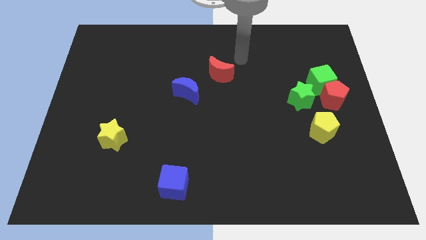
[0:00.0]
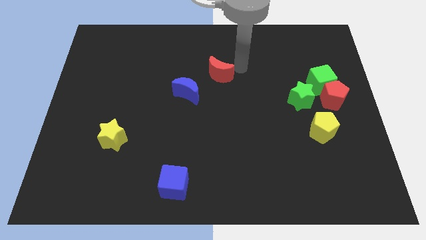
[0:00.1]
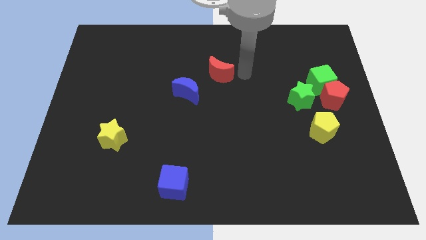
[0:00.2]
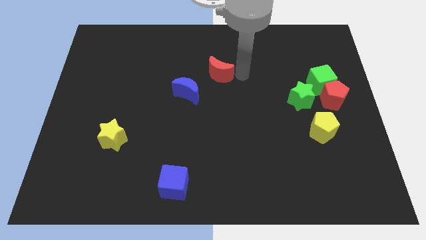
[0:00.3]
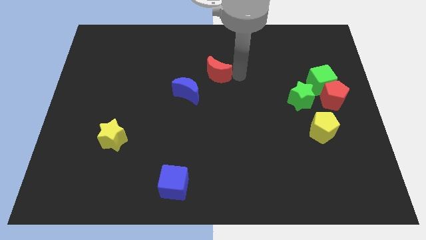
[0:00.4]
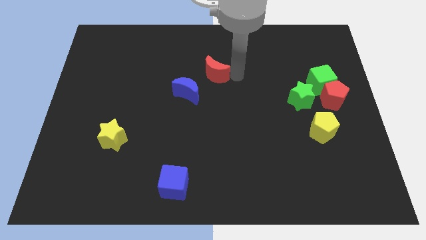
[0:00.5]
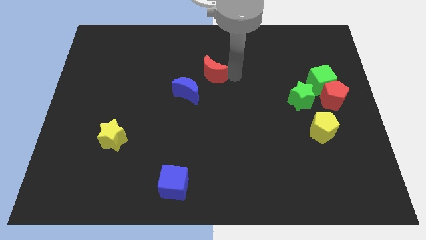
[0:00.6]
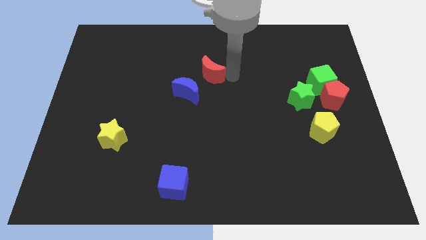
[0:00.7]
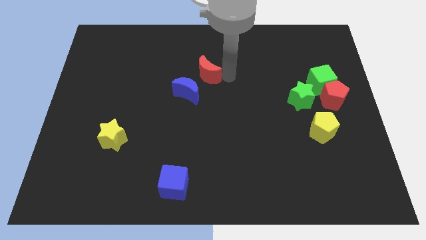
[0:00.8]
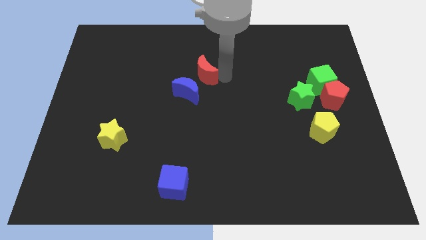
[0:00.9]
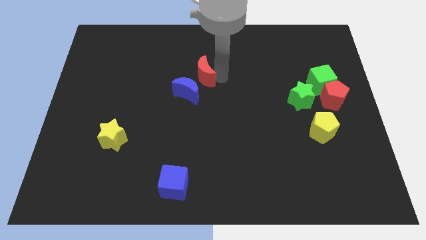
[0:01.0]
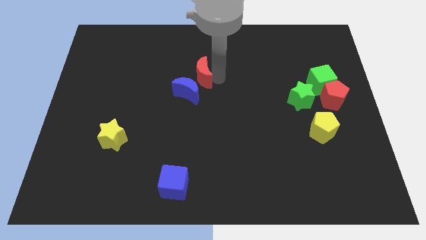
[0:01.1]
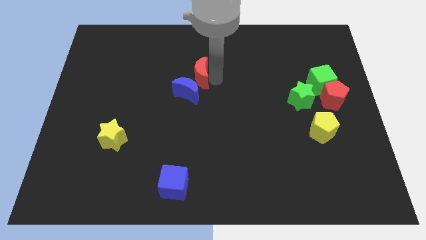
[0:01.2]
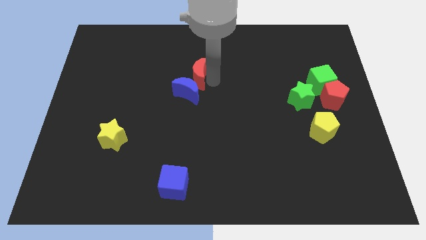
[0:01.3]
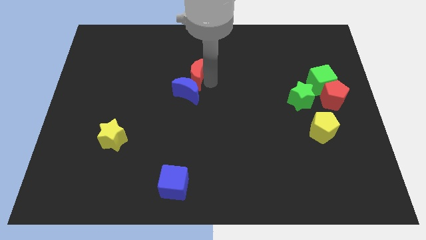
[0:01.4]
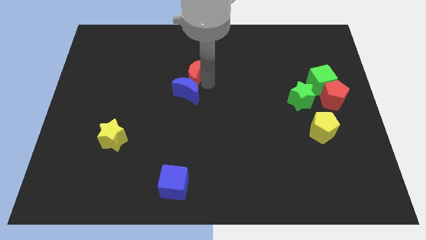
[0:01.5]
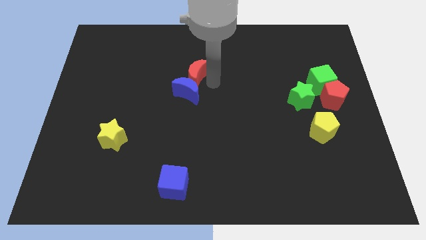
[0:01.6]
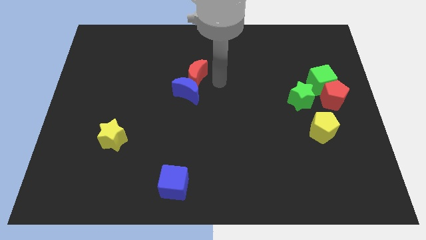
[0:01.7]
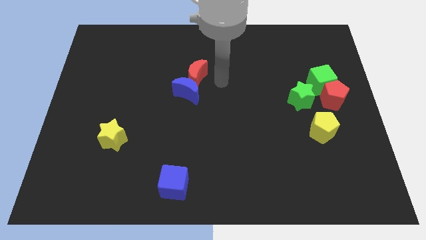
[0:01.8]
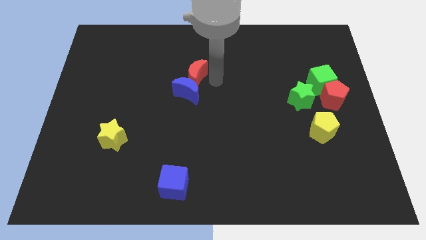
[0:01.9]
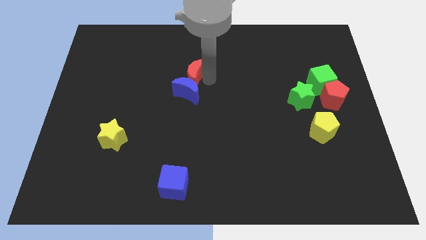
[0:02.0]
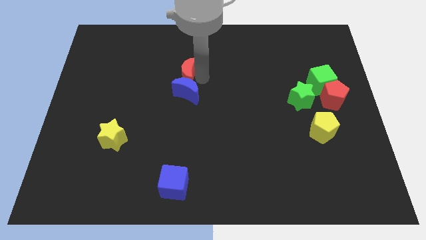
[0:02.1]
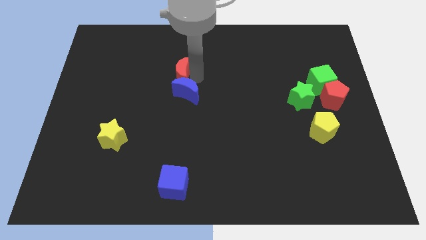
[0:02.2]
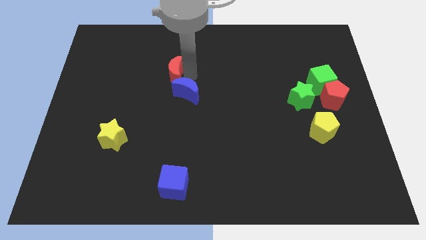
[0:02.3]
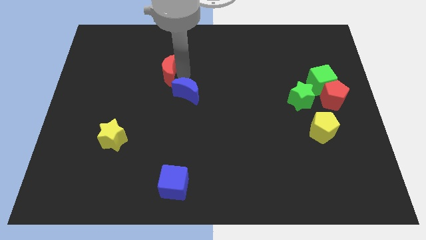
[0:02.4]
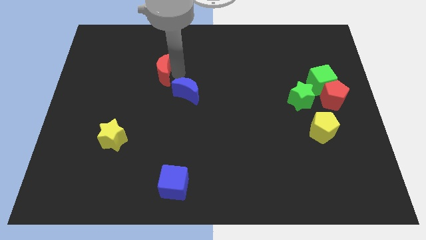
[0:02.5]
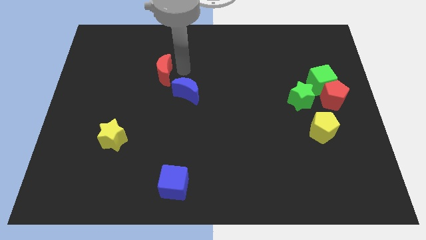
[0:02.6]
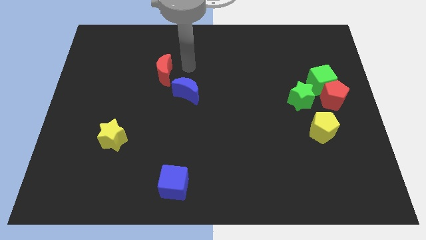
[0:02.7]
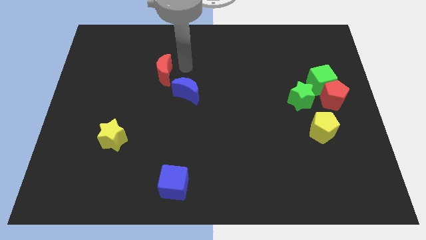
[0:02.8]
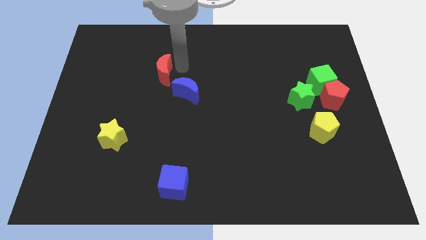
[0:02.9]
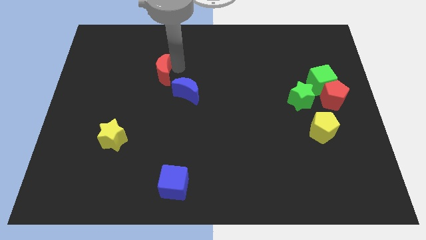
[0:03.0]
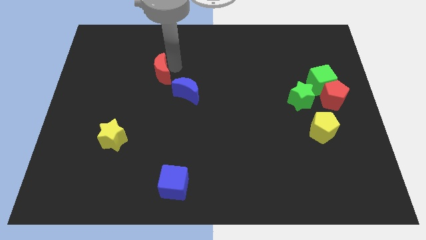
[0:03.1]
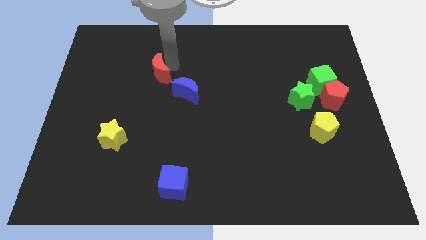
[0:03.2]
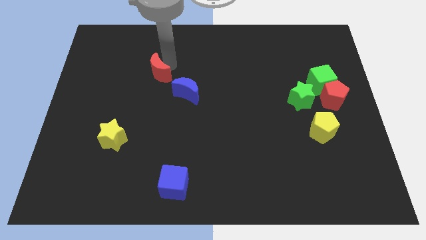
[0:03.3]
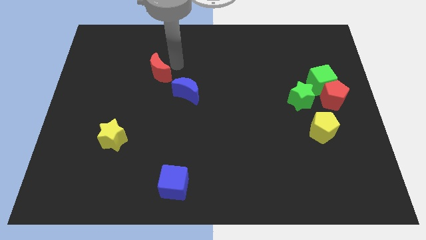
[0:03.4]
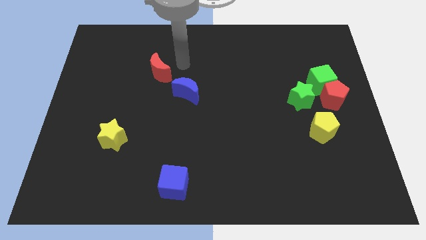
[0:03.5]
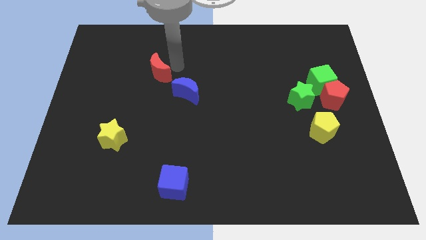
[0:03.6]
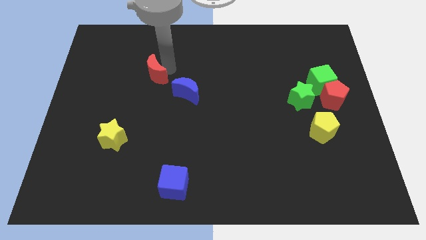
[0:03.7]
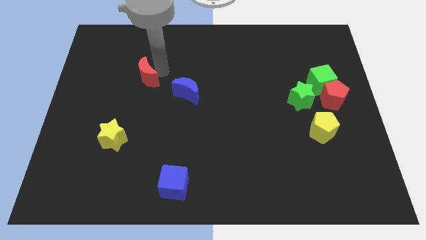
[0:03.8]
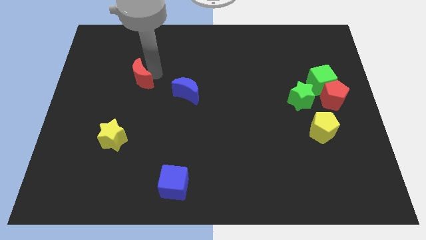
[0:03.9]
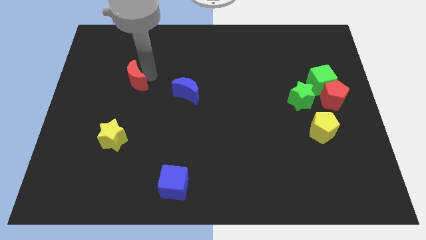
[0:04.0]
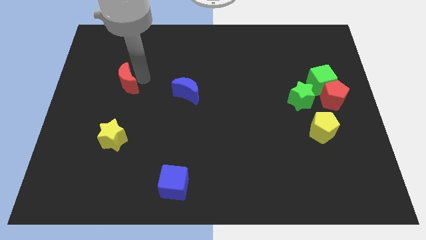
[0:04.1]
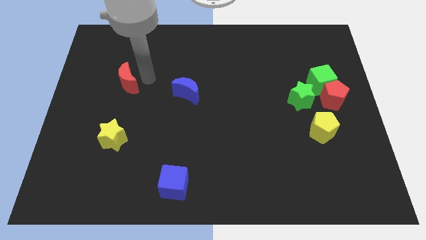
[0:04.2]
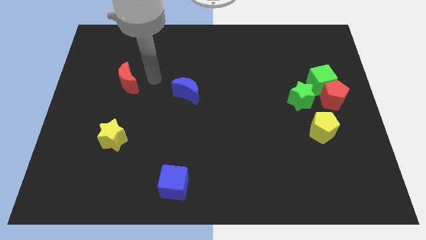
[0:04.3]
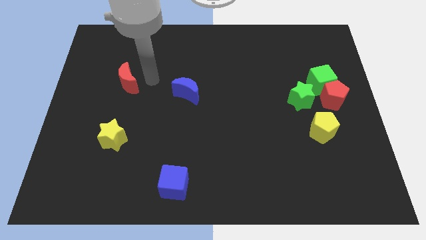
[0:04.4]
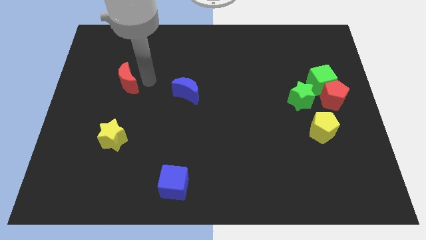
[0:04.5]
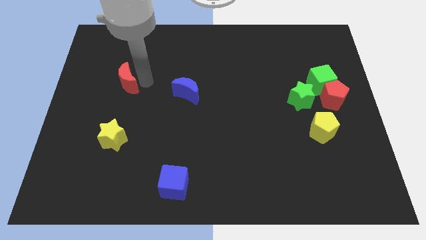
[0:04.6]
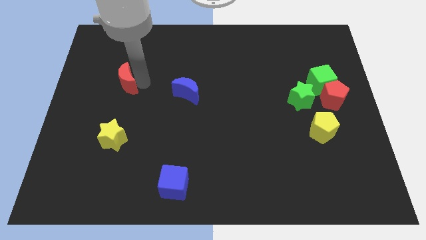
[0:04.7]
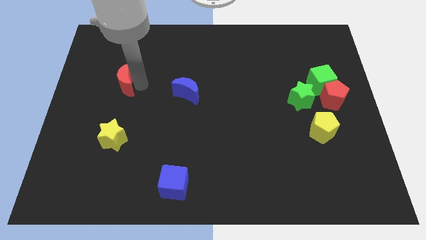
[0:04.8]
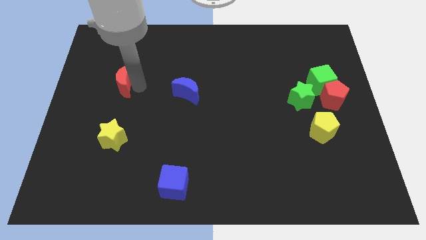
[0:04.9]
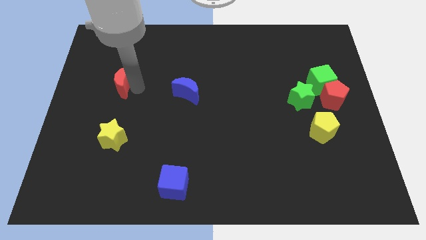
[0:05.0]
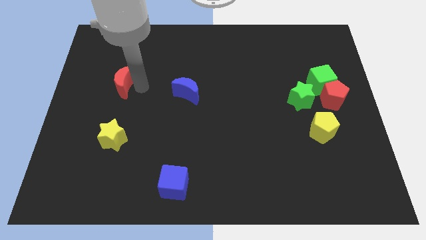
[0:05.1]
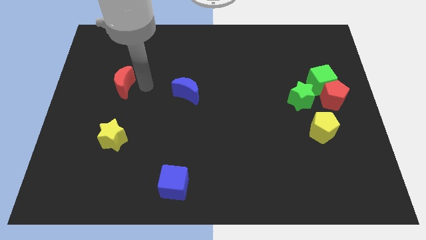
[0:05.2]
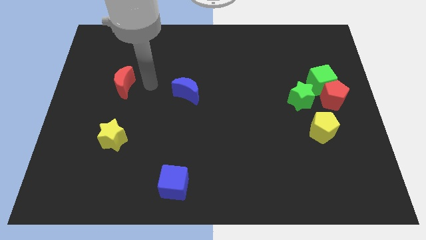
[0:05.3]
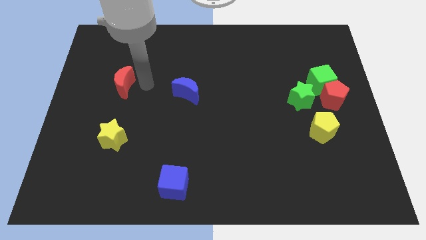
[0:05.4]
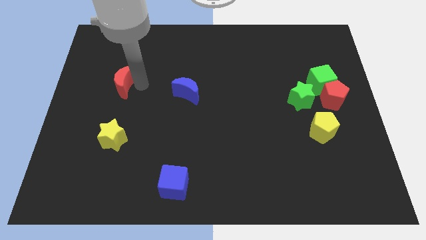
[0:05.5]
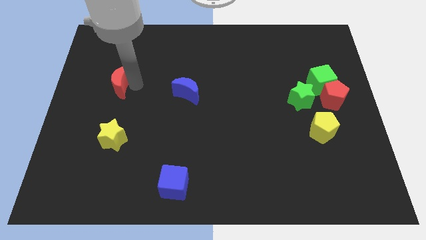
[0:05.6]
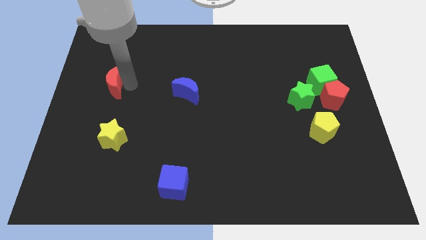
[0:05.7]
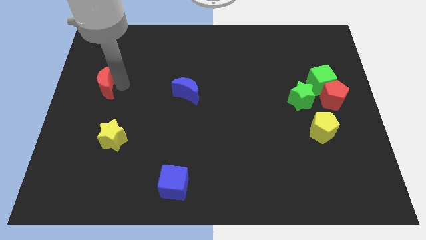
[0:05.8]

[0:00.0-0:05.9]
push the red moon to the left side

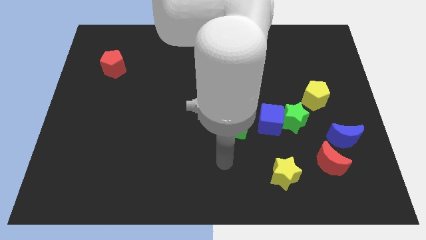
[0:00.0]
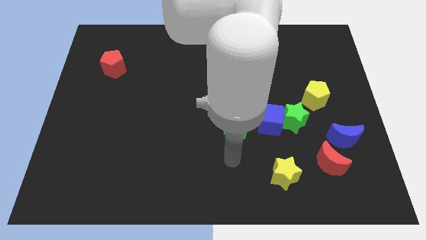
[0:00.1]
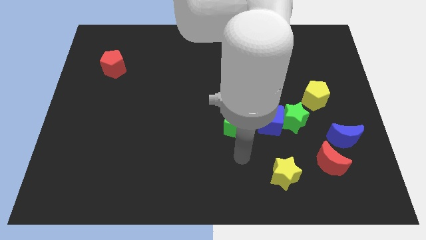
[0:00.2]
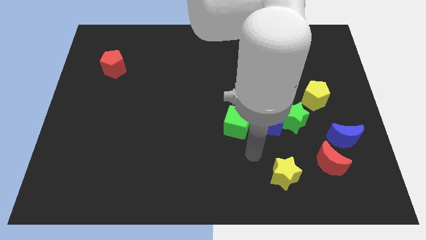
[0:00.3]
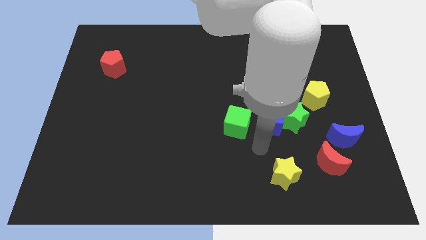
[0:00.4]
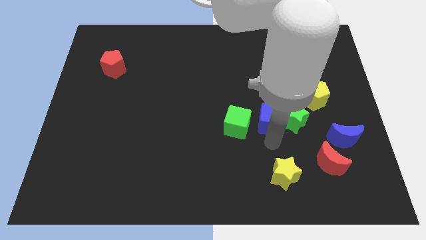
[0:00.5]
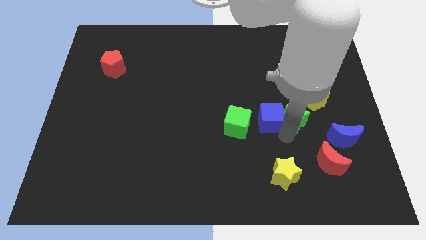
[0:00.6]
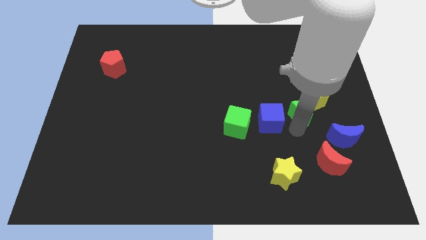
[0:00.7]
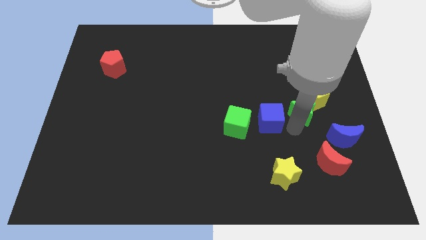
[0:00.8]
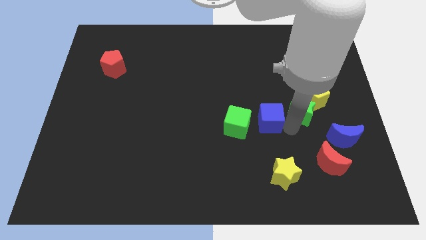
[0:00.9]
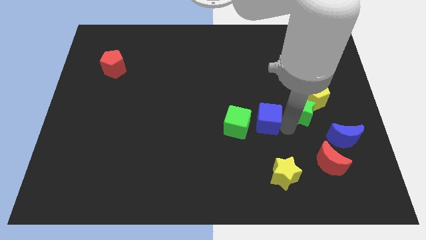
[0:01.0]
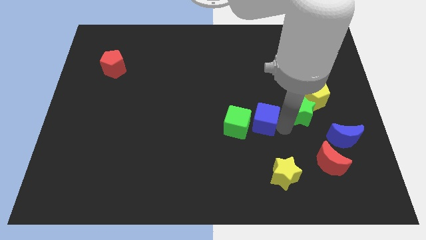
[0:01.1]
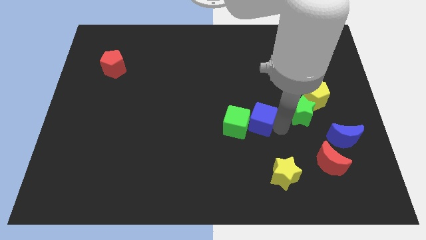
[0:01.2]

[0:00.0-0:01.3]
move the blue cube to the middle of the board
